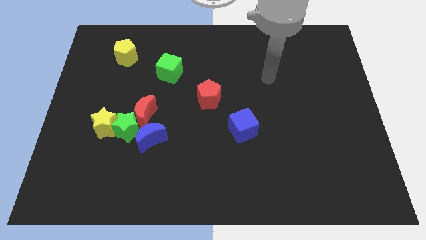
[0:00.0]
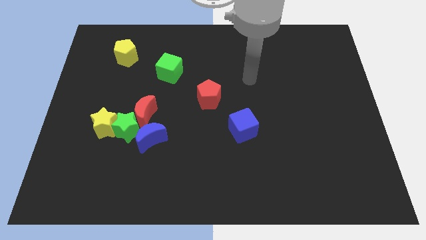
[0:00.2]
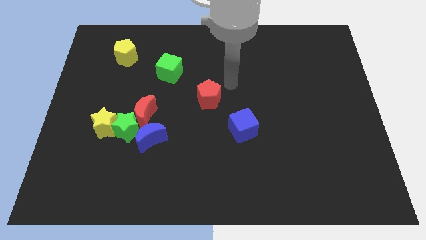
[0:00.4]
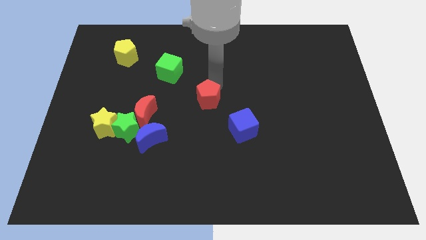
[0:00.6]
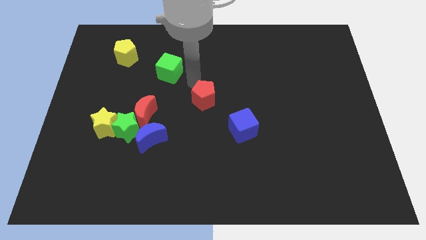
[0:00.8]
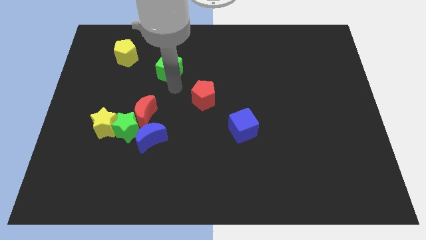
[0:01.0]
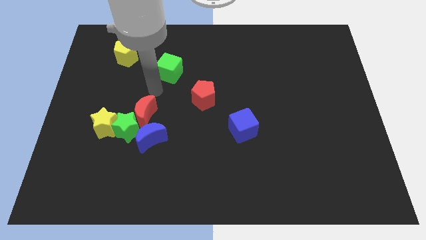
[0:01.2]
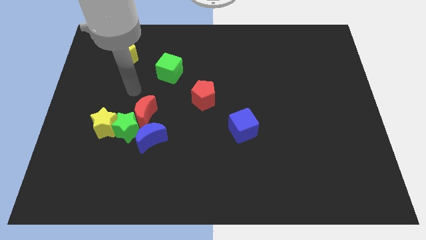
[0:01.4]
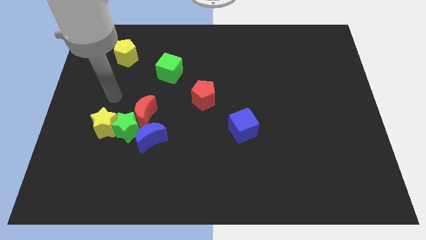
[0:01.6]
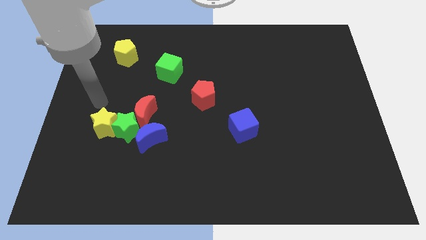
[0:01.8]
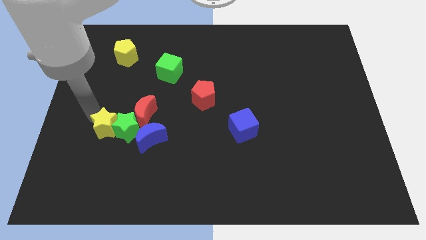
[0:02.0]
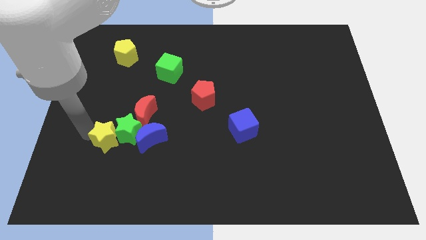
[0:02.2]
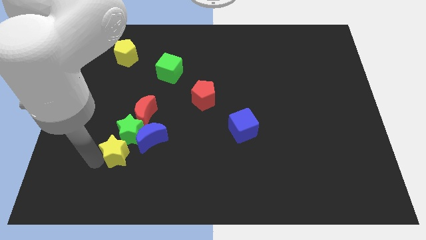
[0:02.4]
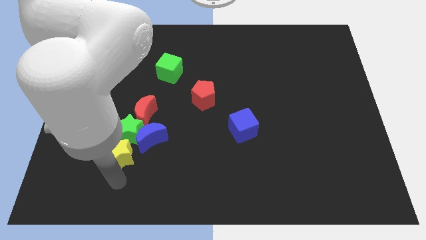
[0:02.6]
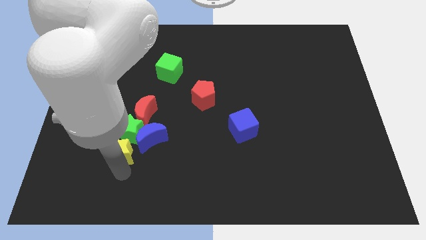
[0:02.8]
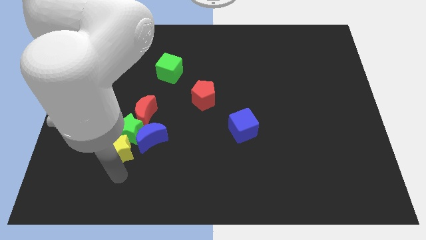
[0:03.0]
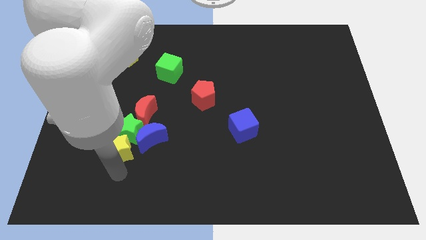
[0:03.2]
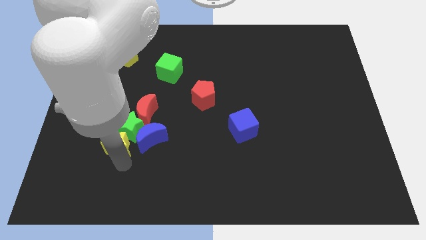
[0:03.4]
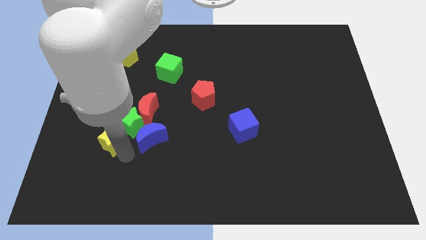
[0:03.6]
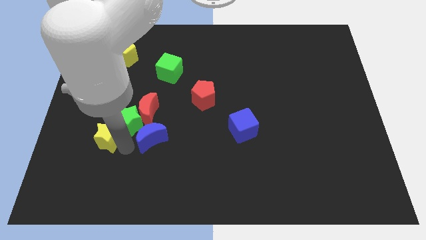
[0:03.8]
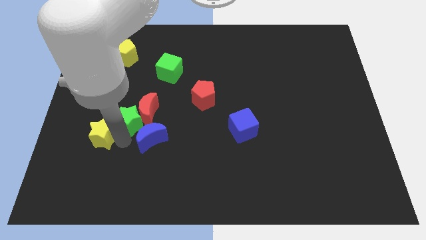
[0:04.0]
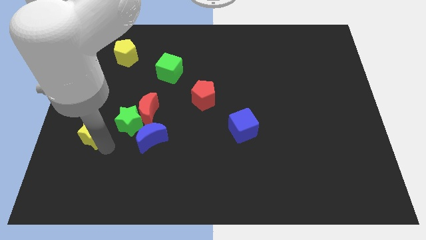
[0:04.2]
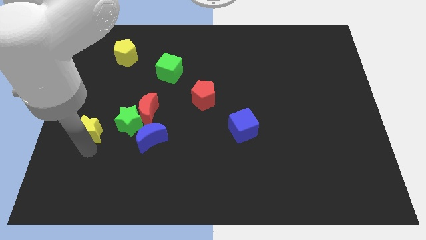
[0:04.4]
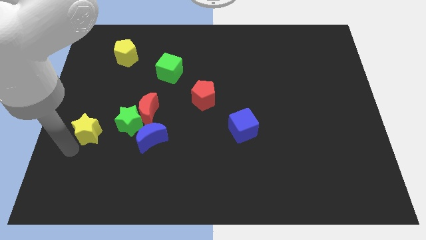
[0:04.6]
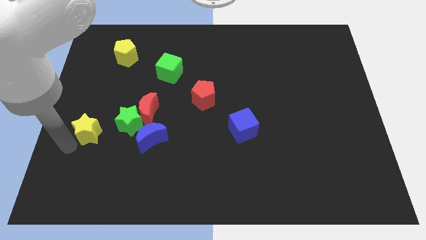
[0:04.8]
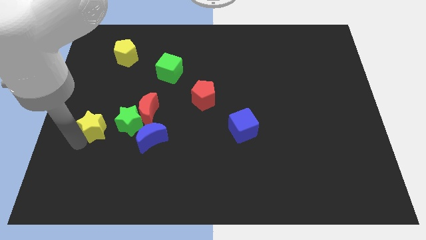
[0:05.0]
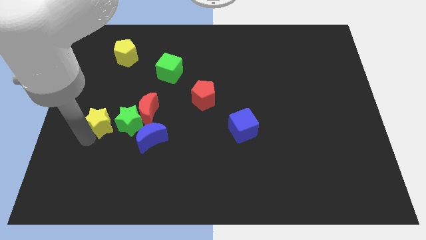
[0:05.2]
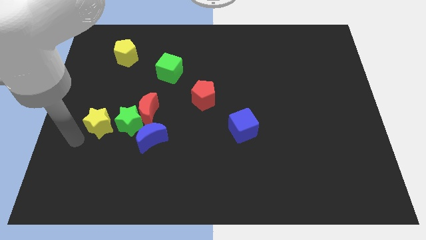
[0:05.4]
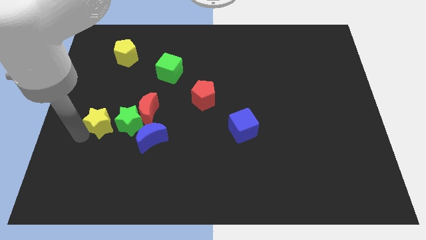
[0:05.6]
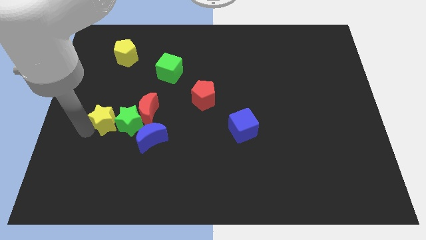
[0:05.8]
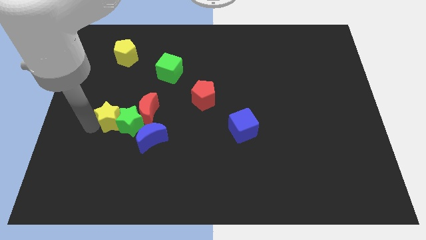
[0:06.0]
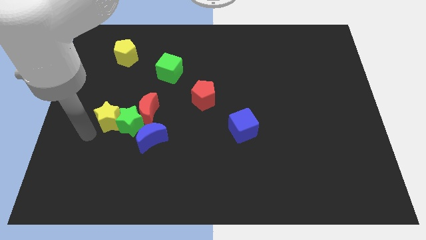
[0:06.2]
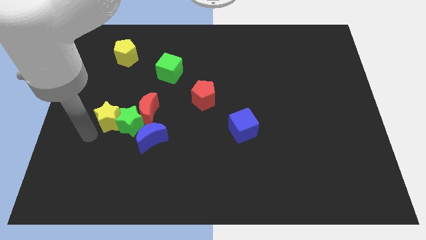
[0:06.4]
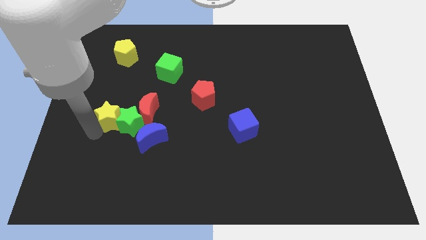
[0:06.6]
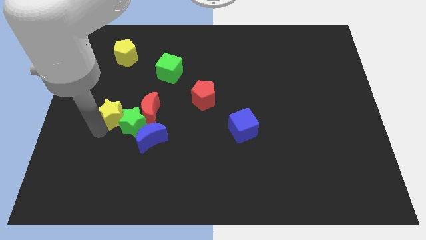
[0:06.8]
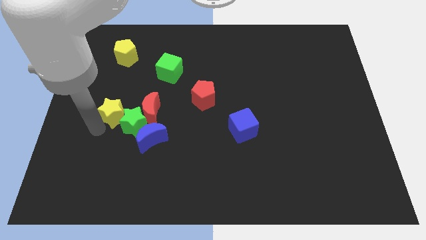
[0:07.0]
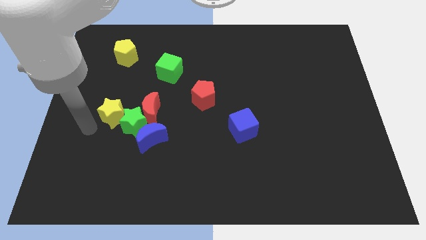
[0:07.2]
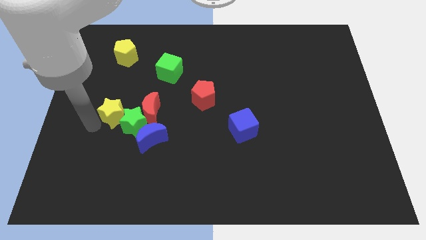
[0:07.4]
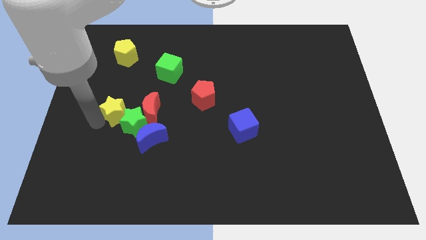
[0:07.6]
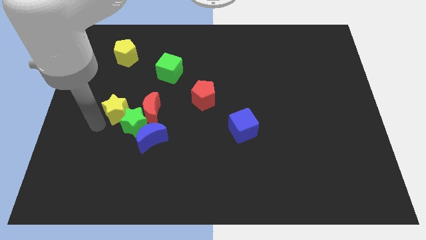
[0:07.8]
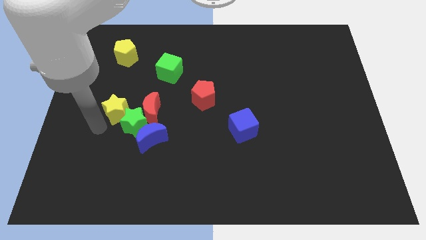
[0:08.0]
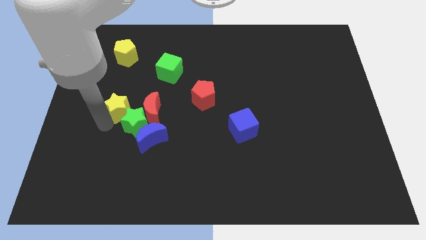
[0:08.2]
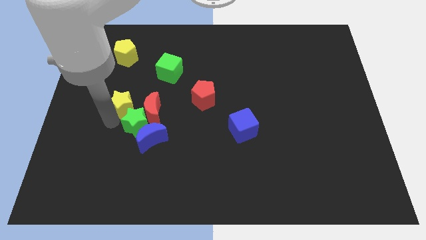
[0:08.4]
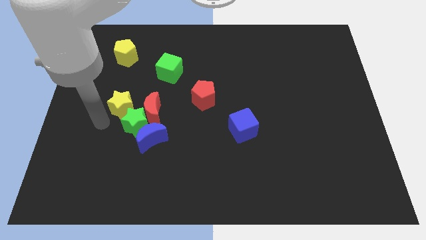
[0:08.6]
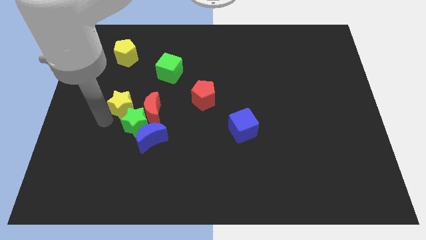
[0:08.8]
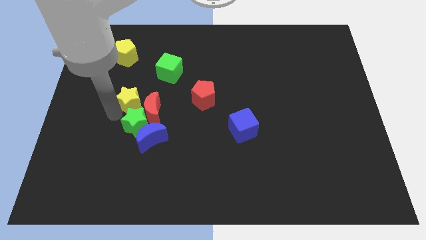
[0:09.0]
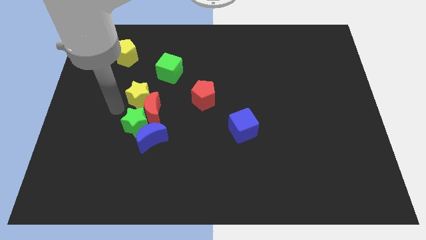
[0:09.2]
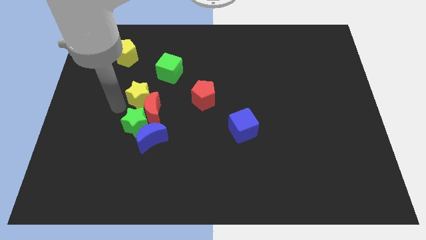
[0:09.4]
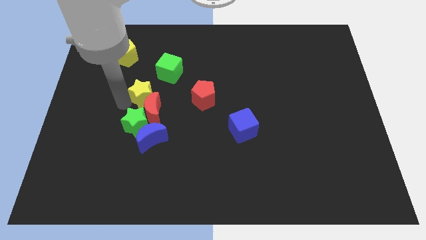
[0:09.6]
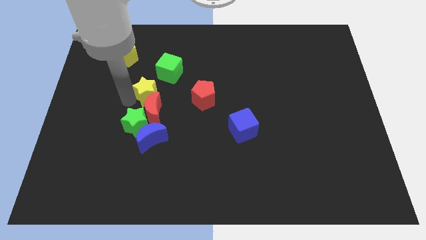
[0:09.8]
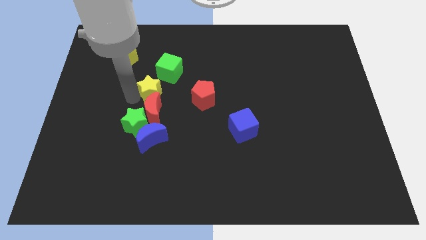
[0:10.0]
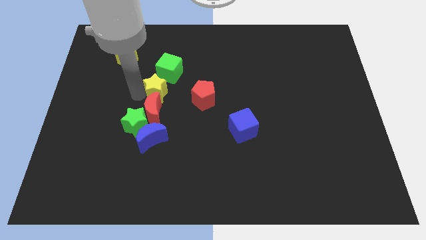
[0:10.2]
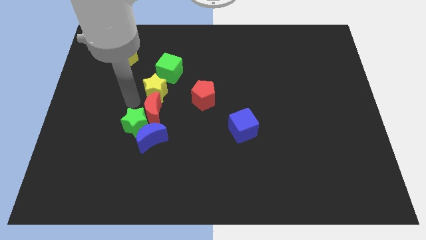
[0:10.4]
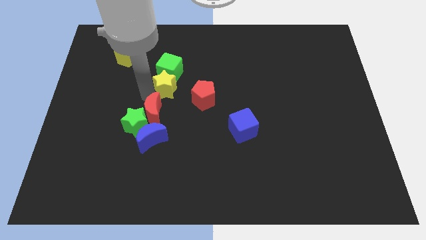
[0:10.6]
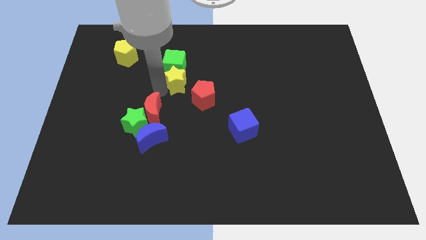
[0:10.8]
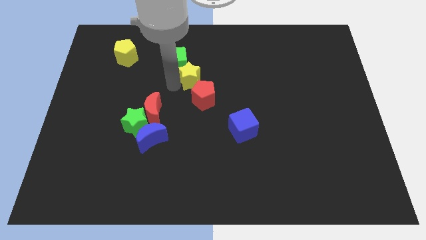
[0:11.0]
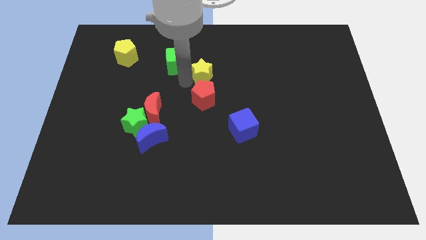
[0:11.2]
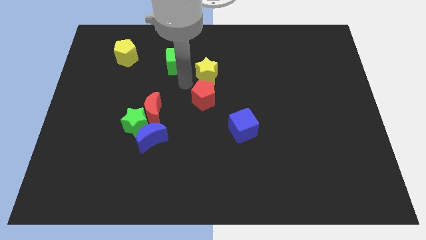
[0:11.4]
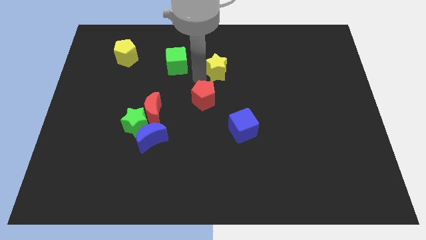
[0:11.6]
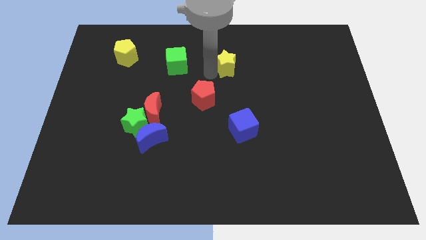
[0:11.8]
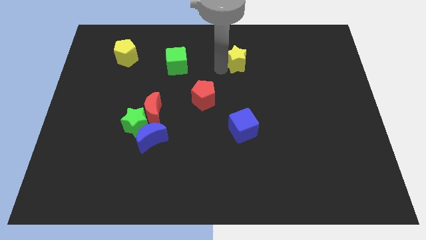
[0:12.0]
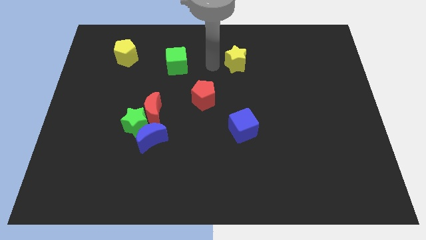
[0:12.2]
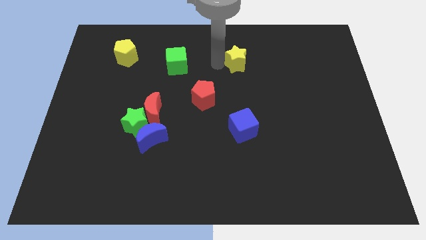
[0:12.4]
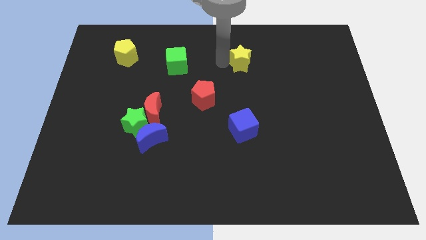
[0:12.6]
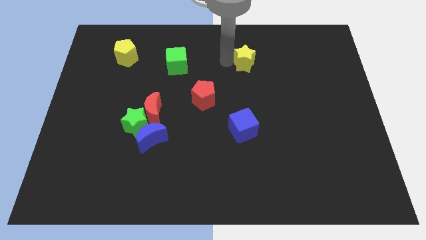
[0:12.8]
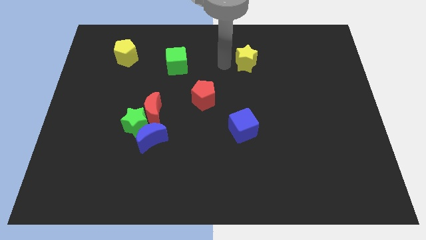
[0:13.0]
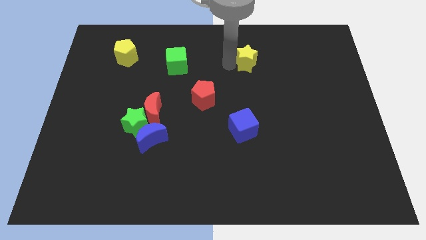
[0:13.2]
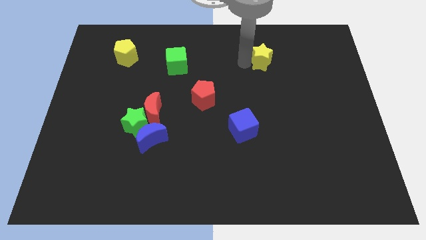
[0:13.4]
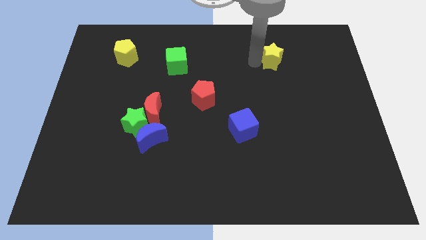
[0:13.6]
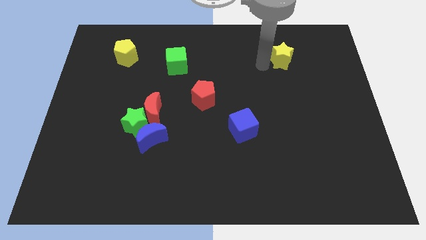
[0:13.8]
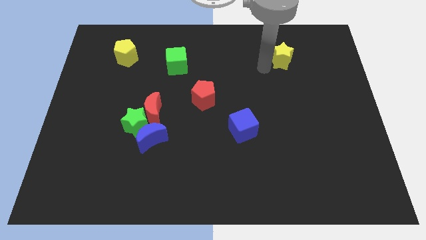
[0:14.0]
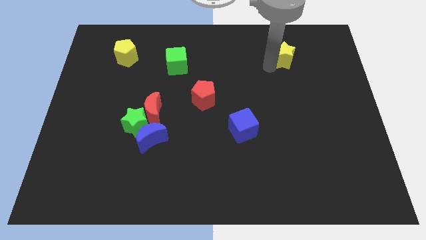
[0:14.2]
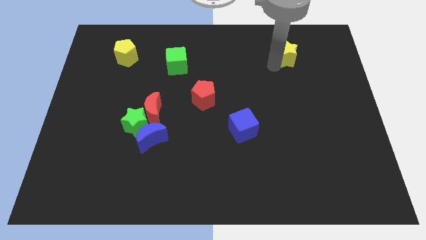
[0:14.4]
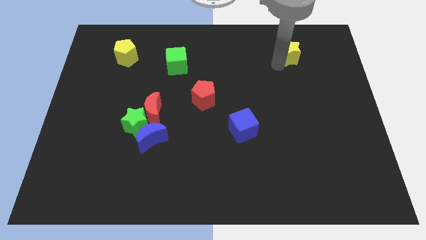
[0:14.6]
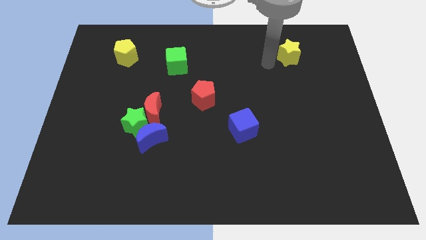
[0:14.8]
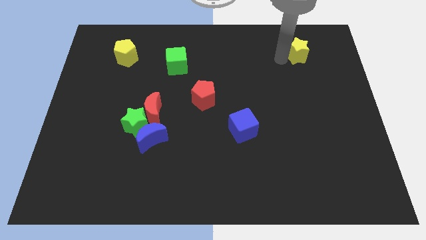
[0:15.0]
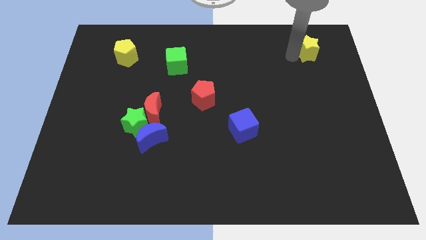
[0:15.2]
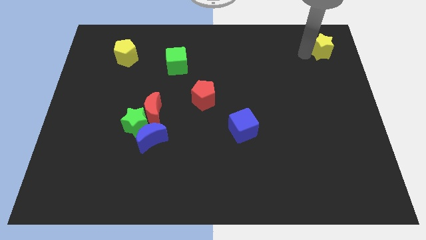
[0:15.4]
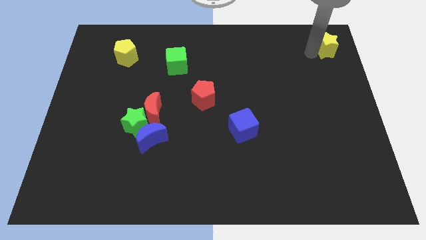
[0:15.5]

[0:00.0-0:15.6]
move the yellow star to the top right

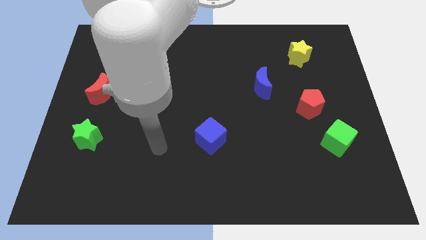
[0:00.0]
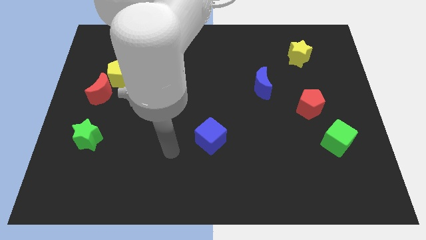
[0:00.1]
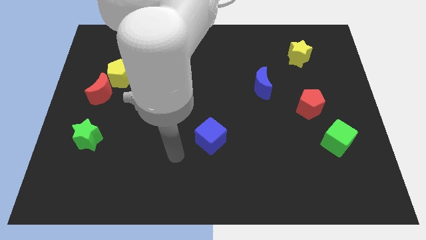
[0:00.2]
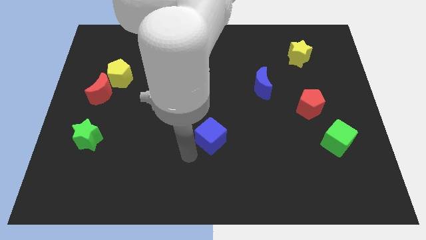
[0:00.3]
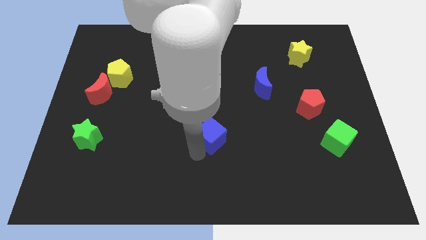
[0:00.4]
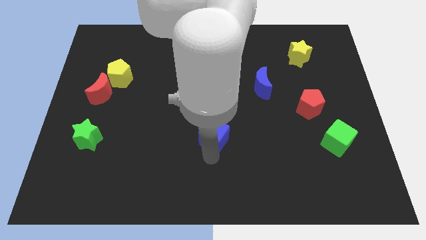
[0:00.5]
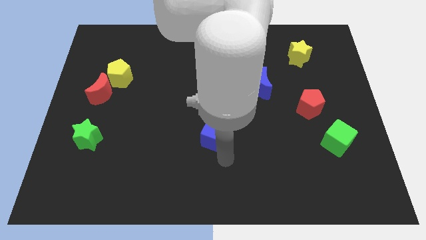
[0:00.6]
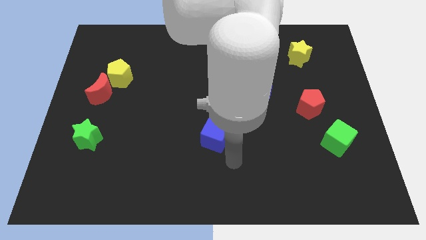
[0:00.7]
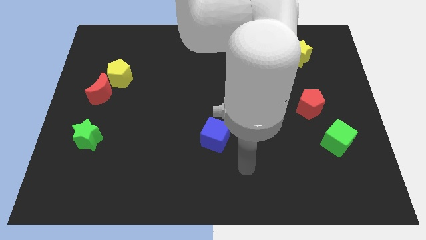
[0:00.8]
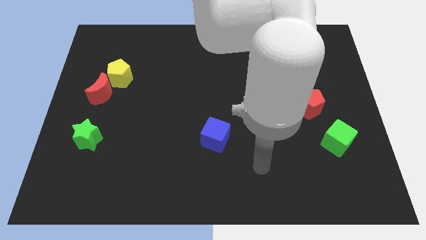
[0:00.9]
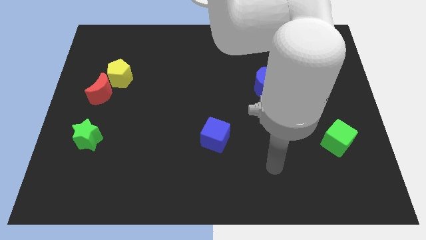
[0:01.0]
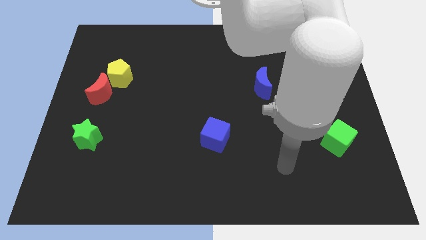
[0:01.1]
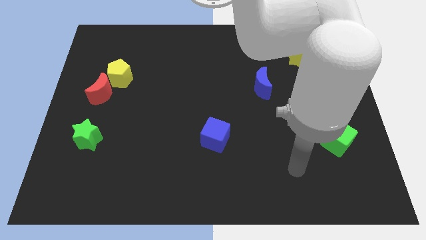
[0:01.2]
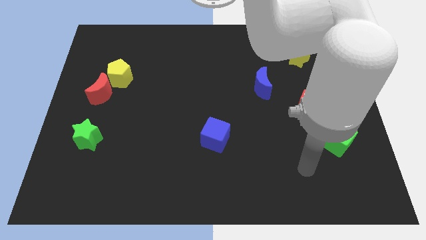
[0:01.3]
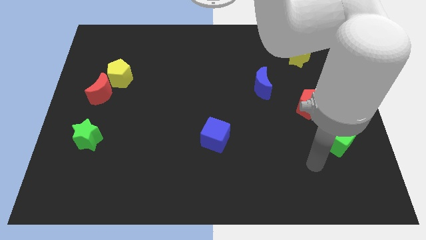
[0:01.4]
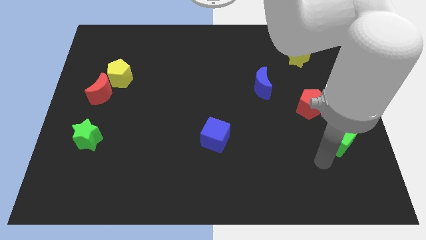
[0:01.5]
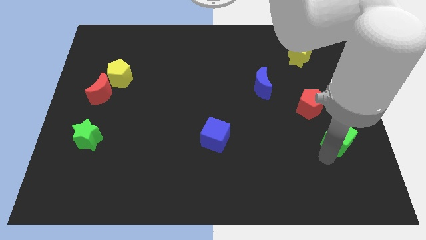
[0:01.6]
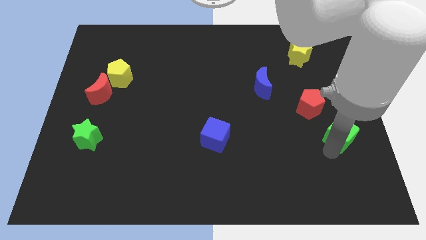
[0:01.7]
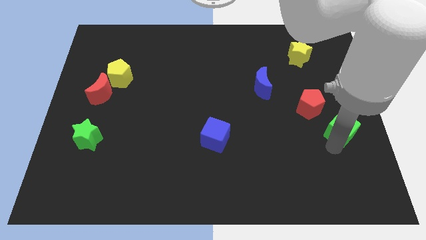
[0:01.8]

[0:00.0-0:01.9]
slide the green cube to the right side of the board
